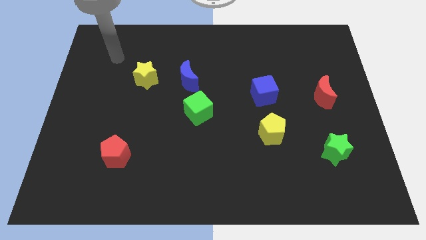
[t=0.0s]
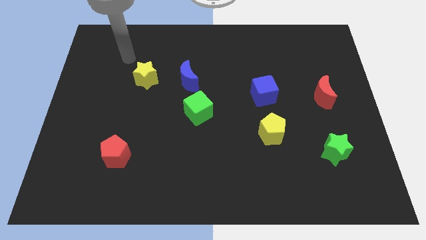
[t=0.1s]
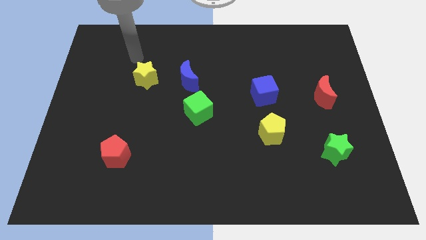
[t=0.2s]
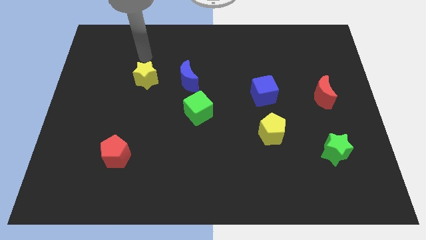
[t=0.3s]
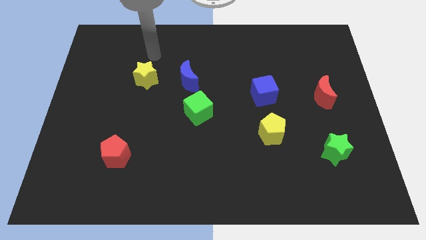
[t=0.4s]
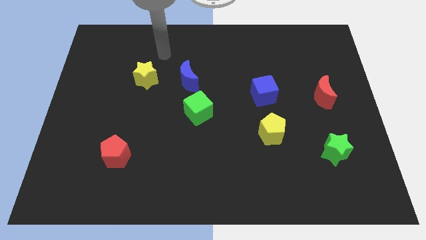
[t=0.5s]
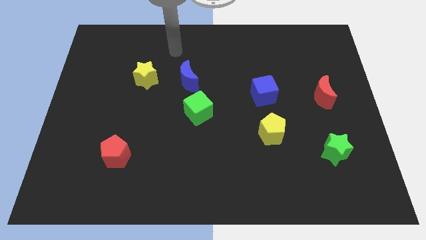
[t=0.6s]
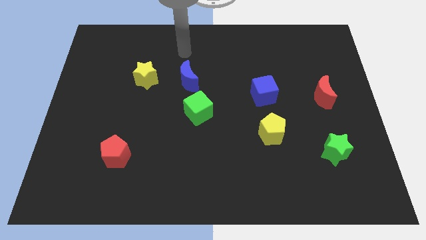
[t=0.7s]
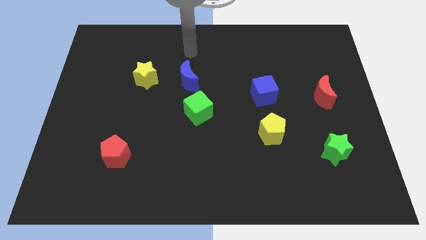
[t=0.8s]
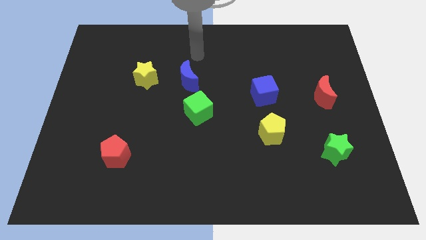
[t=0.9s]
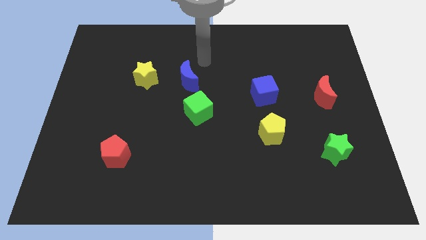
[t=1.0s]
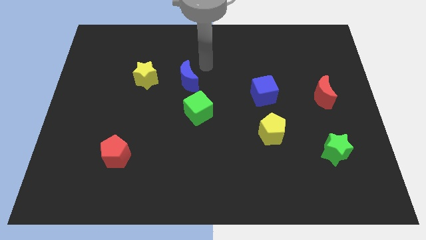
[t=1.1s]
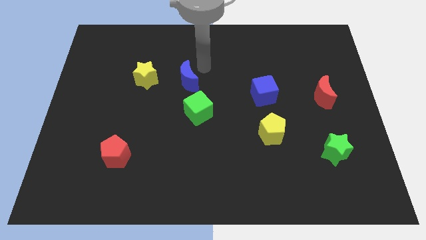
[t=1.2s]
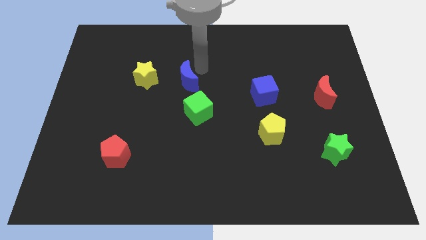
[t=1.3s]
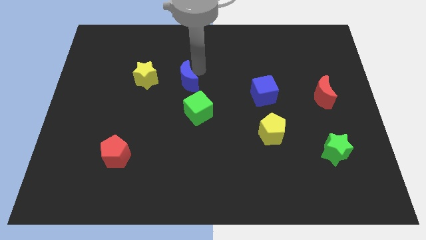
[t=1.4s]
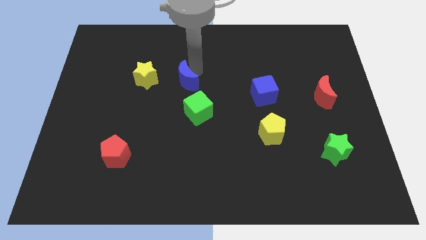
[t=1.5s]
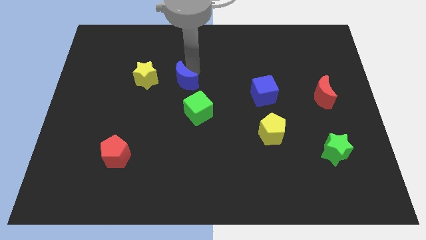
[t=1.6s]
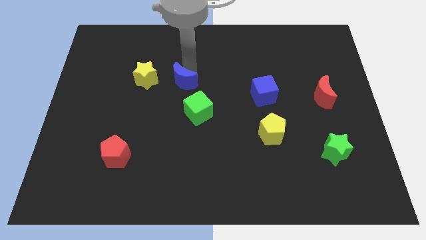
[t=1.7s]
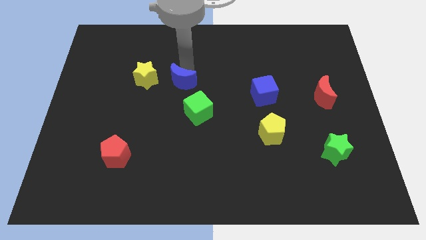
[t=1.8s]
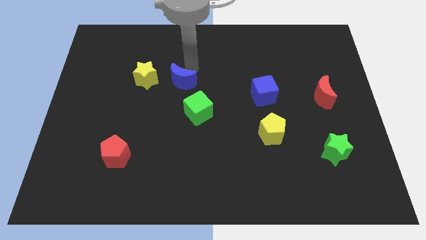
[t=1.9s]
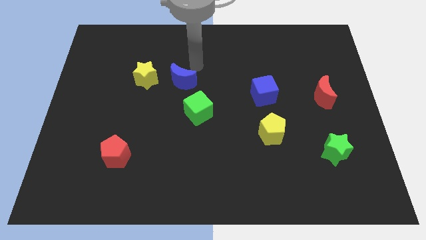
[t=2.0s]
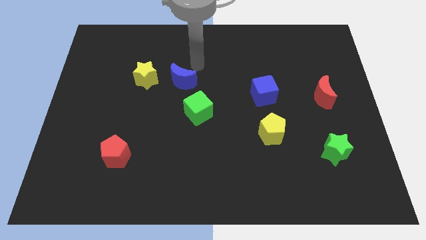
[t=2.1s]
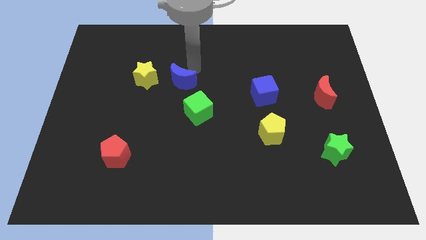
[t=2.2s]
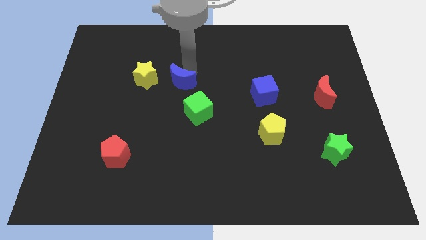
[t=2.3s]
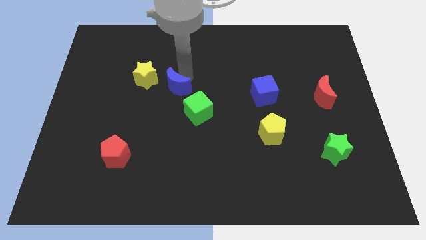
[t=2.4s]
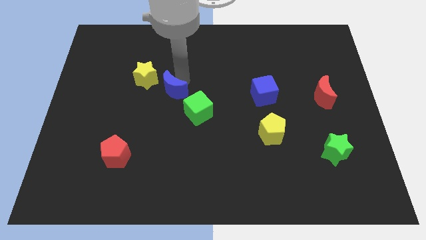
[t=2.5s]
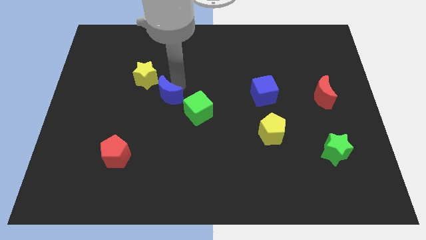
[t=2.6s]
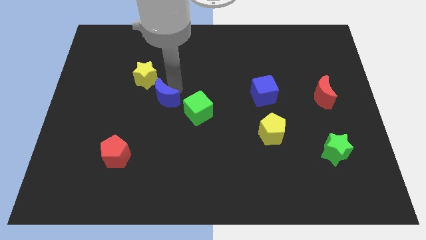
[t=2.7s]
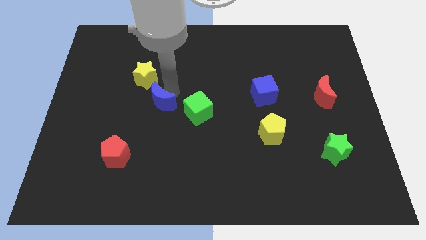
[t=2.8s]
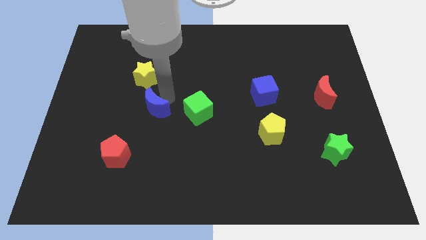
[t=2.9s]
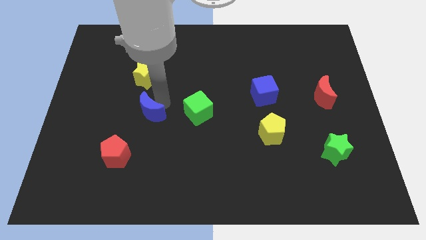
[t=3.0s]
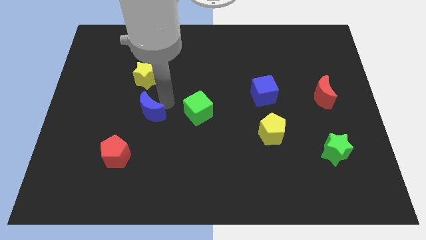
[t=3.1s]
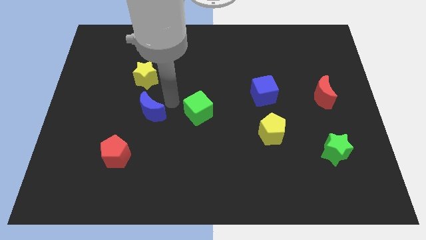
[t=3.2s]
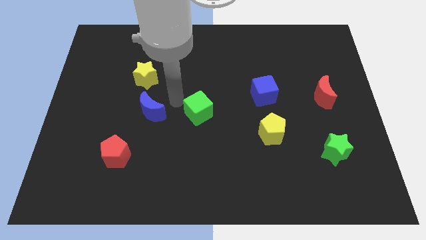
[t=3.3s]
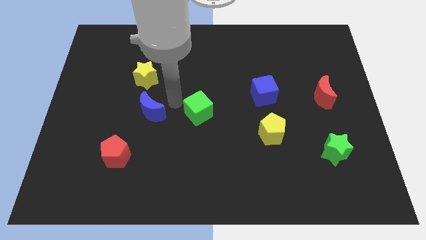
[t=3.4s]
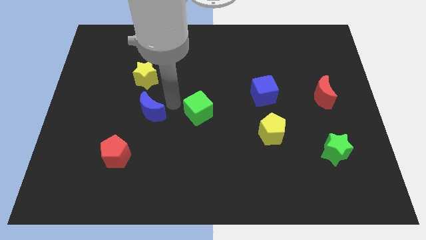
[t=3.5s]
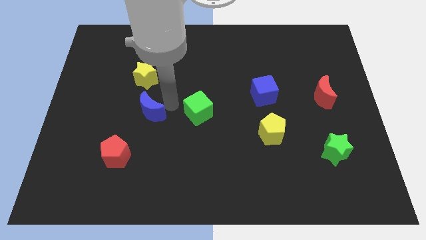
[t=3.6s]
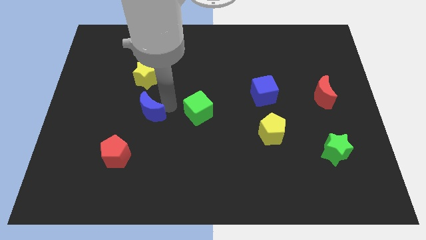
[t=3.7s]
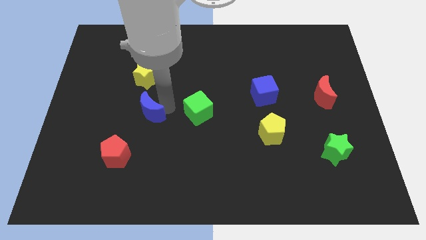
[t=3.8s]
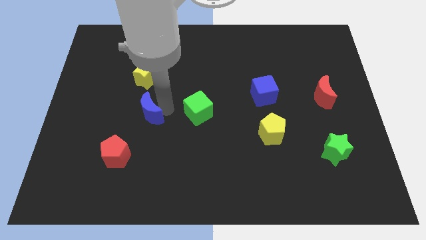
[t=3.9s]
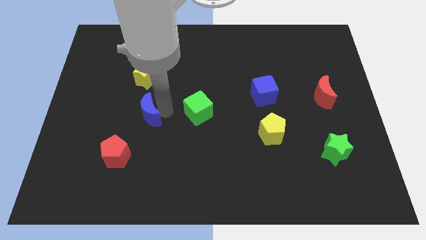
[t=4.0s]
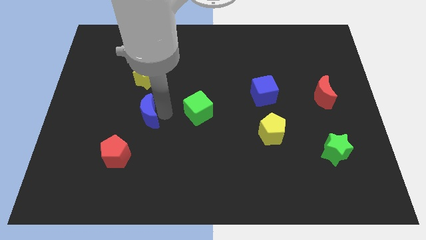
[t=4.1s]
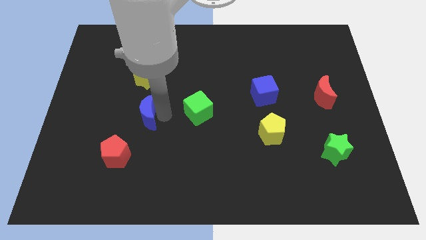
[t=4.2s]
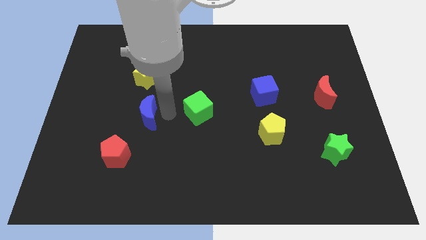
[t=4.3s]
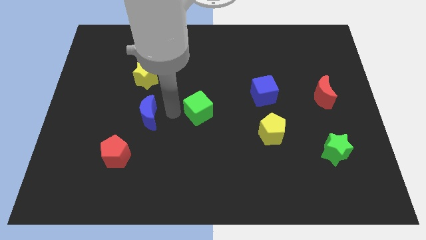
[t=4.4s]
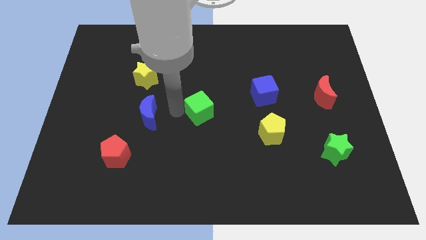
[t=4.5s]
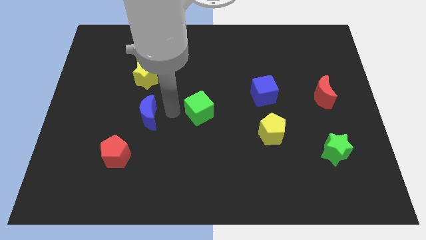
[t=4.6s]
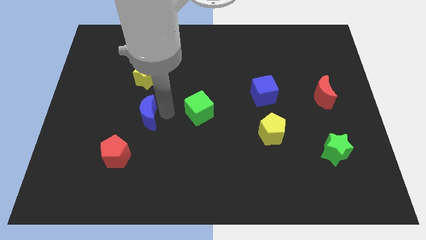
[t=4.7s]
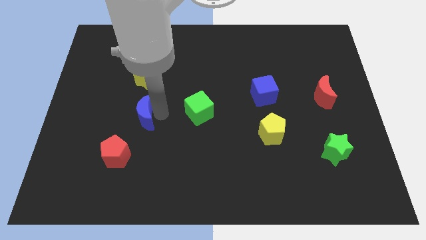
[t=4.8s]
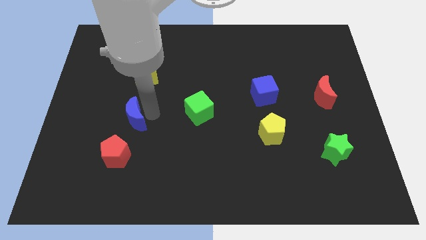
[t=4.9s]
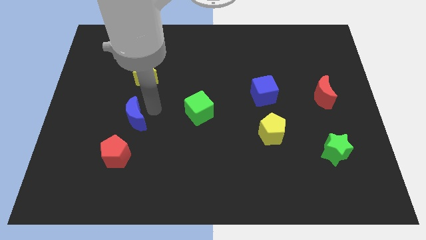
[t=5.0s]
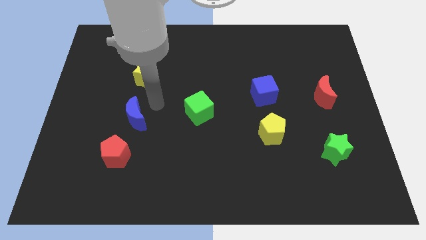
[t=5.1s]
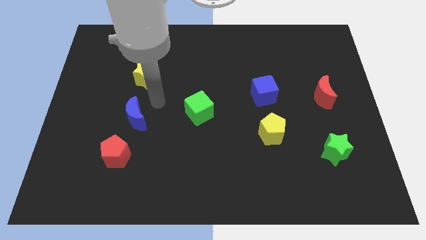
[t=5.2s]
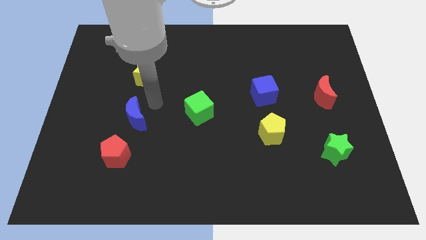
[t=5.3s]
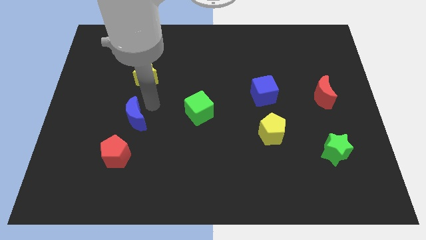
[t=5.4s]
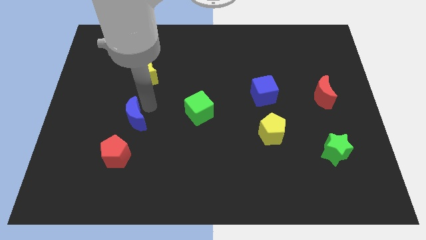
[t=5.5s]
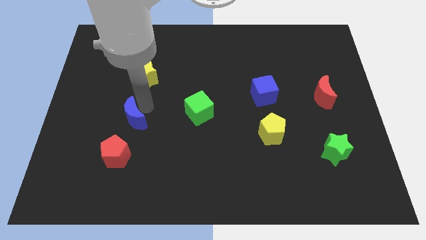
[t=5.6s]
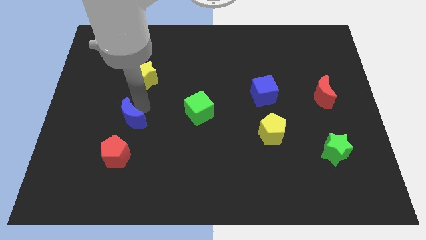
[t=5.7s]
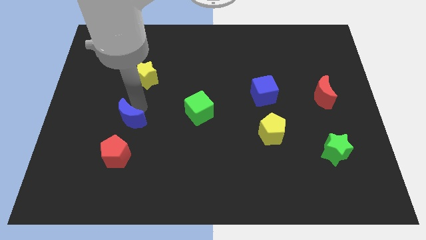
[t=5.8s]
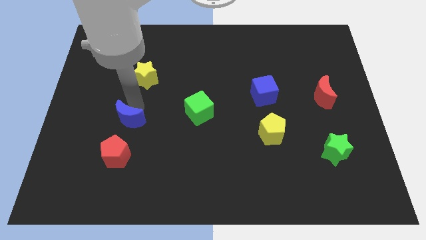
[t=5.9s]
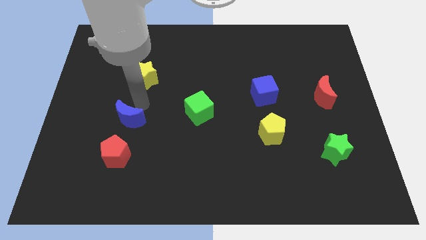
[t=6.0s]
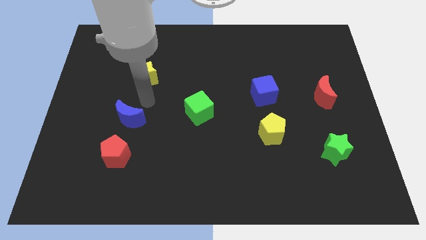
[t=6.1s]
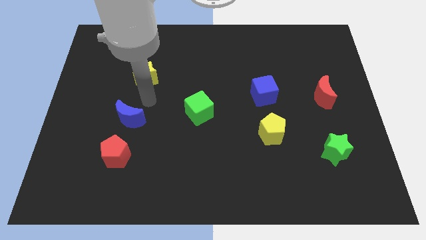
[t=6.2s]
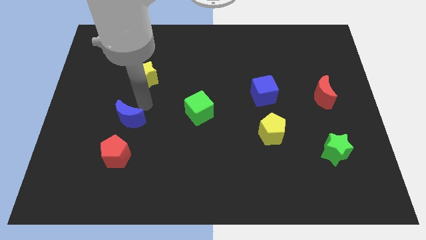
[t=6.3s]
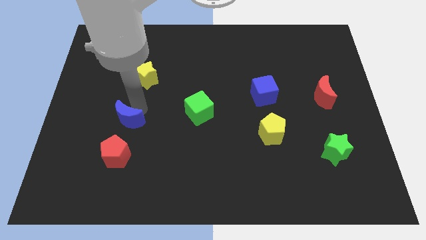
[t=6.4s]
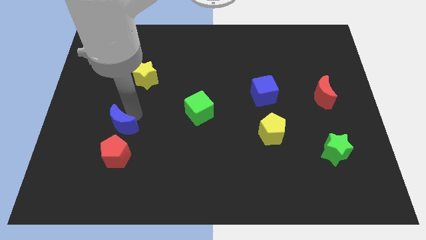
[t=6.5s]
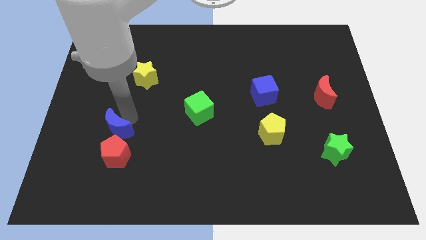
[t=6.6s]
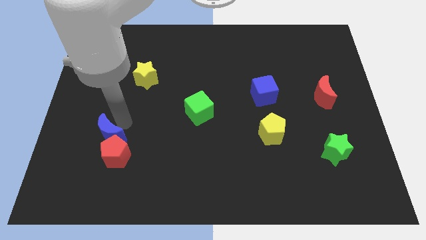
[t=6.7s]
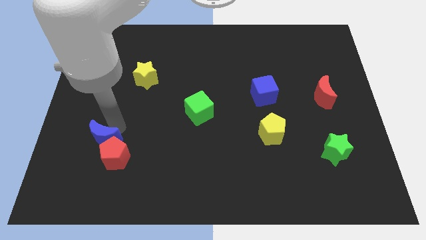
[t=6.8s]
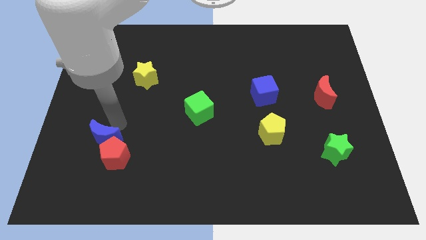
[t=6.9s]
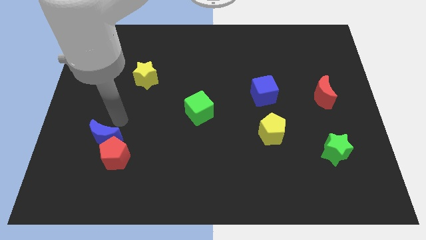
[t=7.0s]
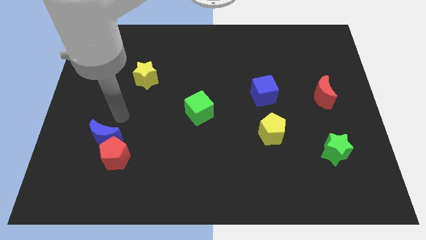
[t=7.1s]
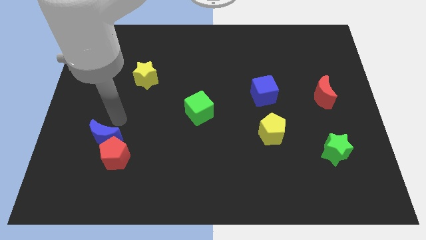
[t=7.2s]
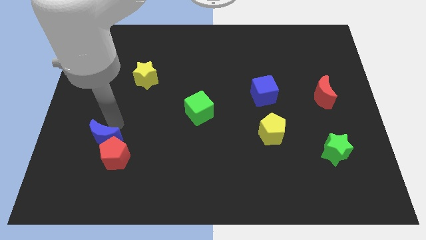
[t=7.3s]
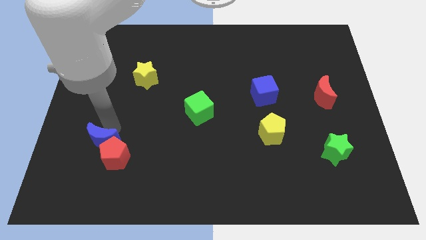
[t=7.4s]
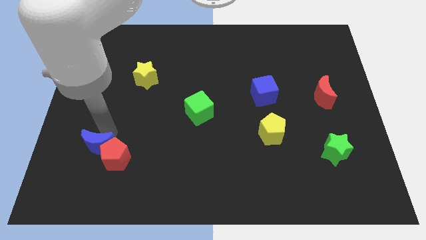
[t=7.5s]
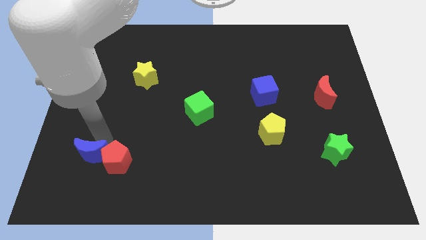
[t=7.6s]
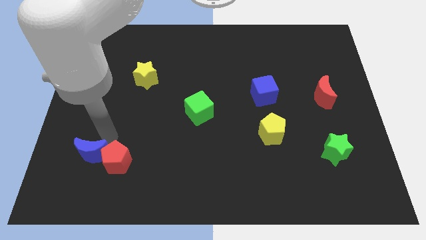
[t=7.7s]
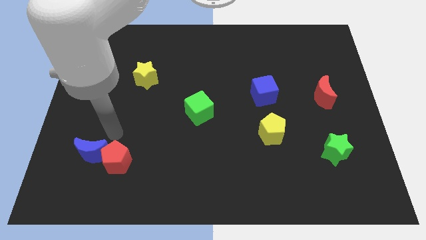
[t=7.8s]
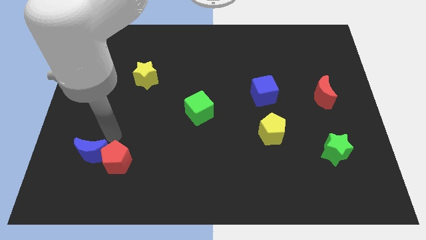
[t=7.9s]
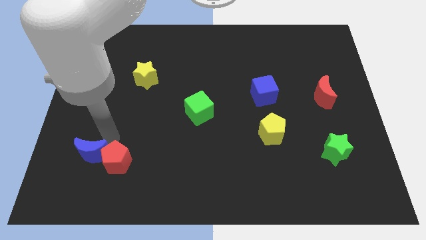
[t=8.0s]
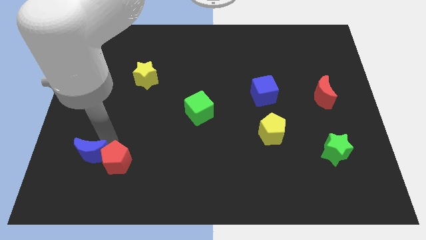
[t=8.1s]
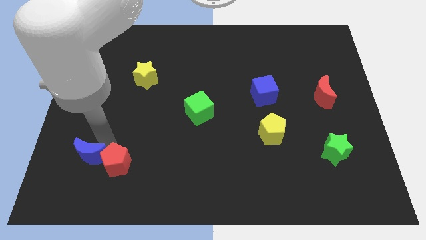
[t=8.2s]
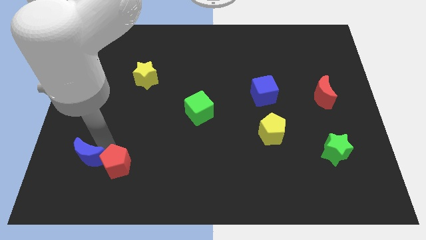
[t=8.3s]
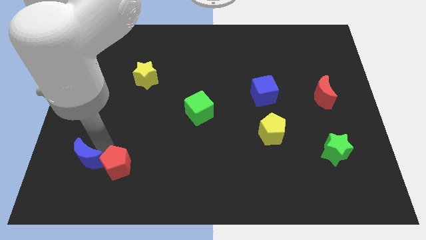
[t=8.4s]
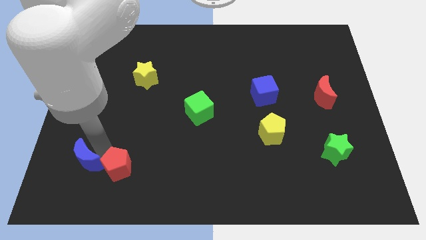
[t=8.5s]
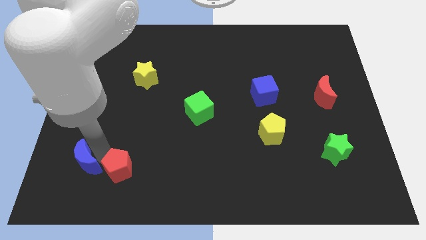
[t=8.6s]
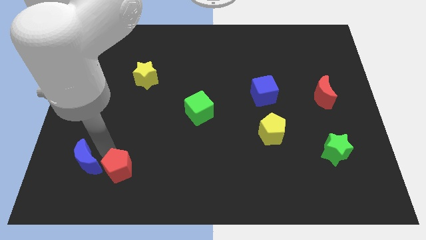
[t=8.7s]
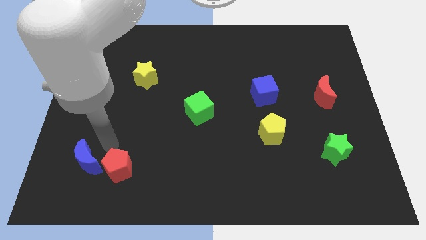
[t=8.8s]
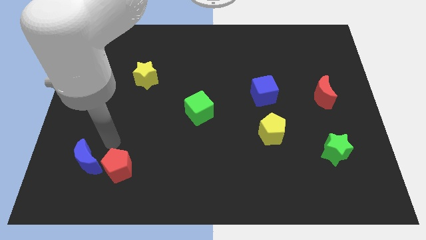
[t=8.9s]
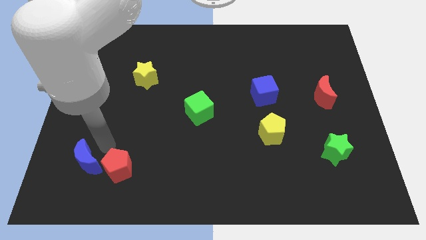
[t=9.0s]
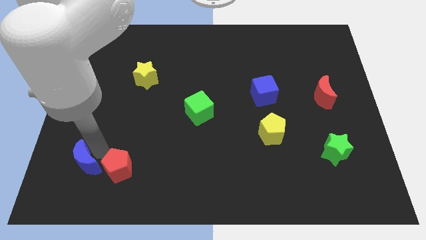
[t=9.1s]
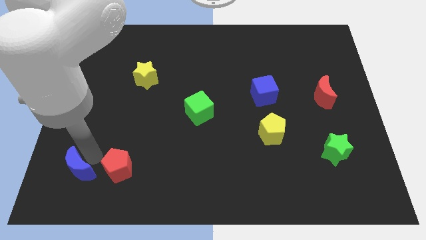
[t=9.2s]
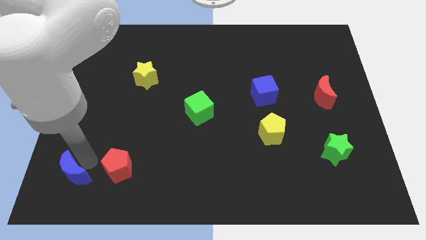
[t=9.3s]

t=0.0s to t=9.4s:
push the blue moon to the lower left corner
